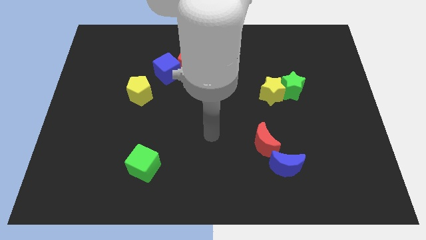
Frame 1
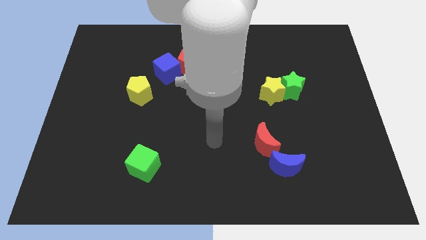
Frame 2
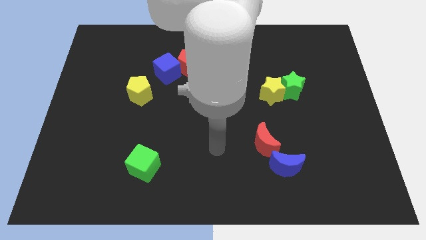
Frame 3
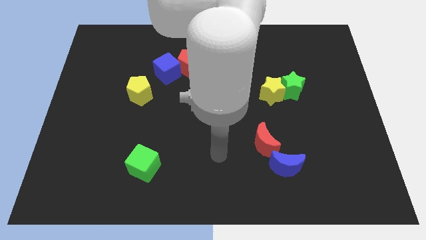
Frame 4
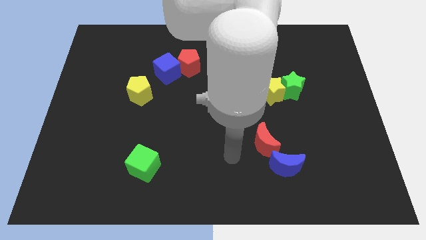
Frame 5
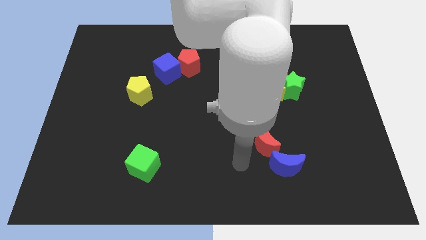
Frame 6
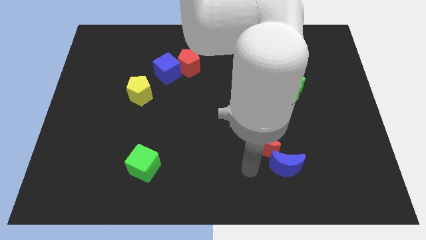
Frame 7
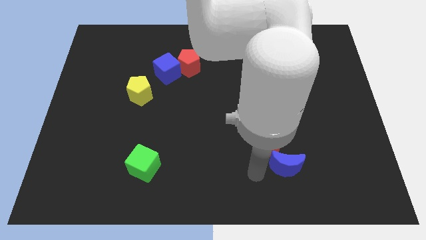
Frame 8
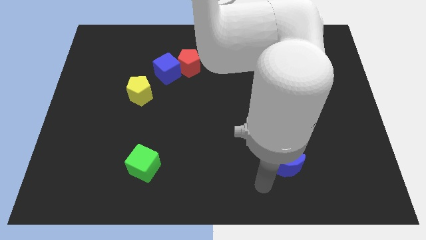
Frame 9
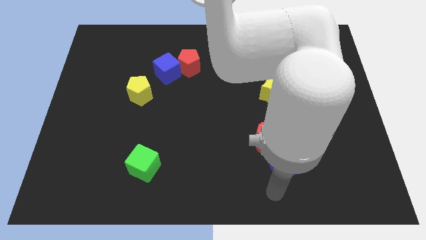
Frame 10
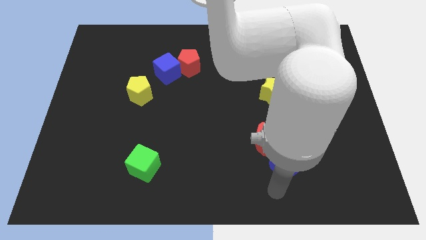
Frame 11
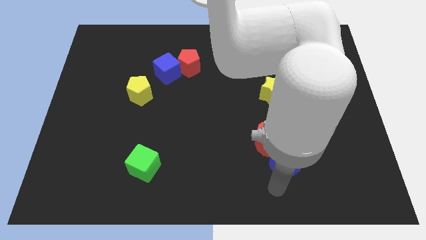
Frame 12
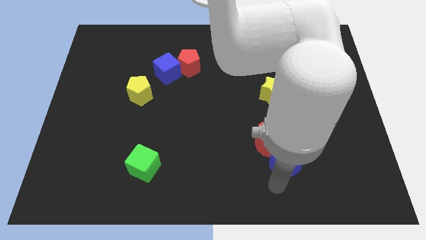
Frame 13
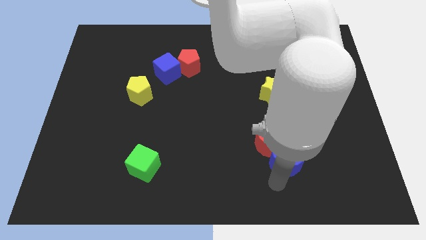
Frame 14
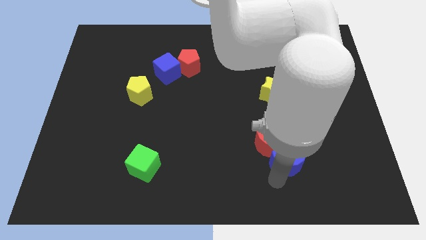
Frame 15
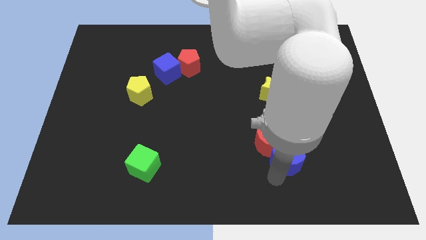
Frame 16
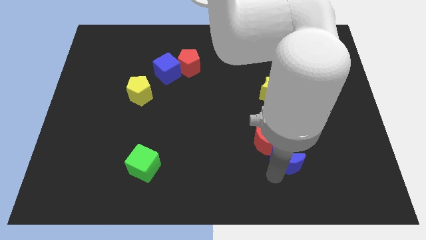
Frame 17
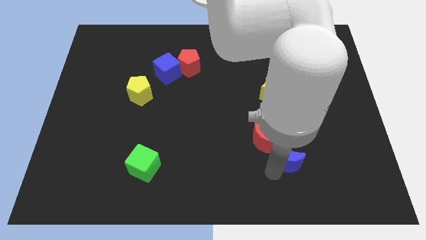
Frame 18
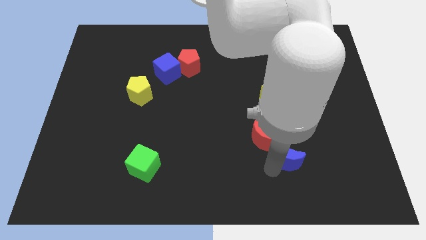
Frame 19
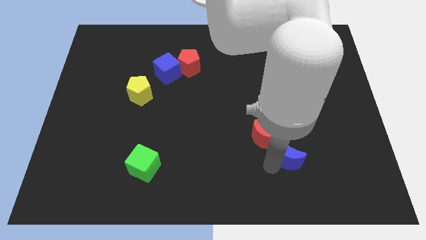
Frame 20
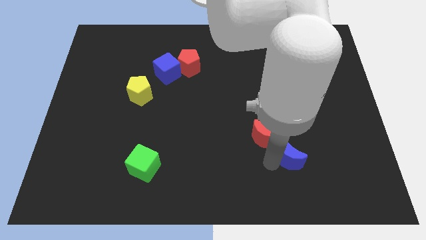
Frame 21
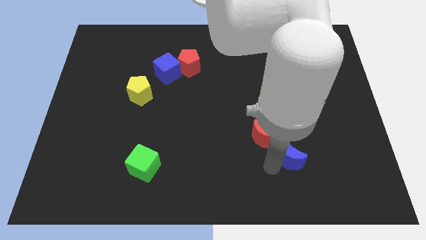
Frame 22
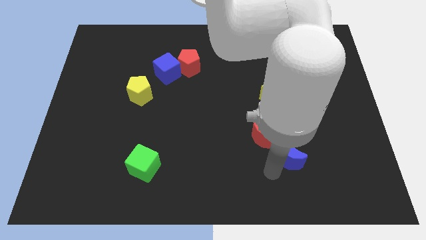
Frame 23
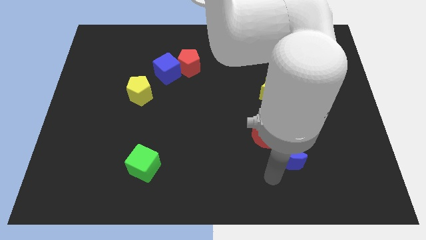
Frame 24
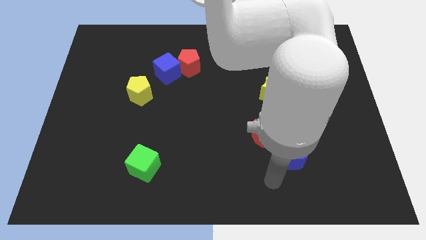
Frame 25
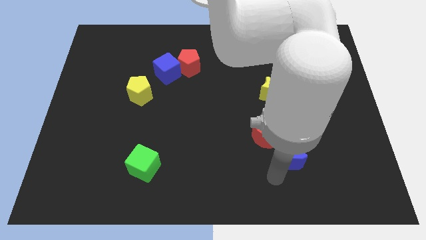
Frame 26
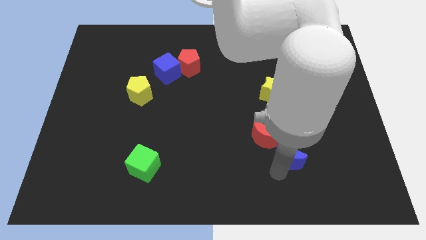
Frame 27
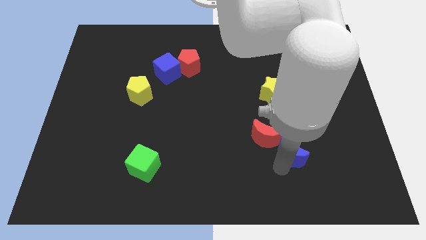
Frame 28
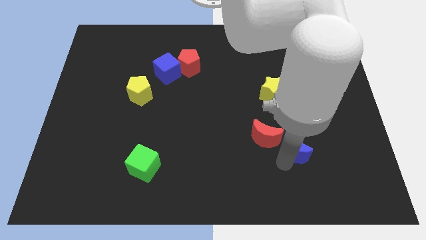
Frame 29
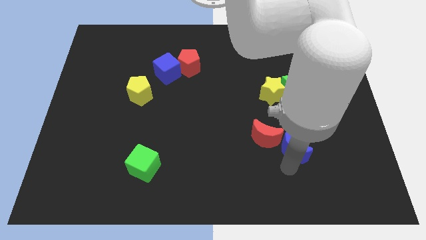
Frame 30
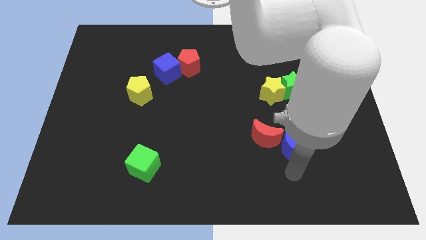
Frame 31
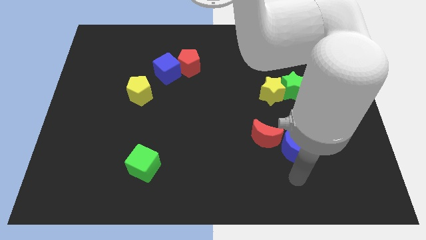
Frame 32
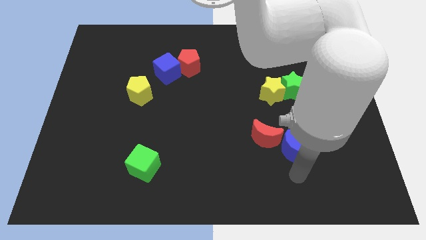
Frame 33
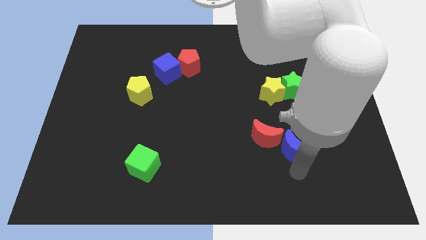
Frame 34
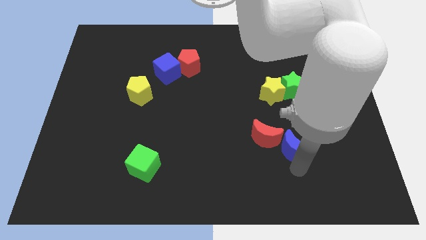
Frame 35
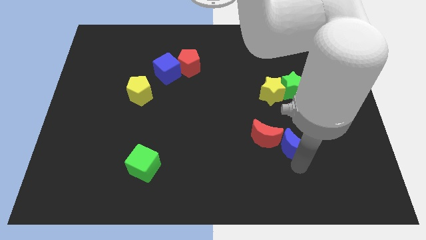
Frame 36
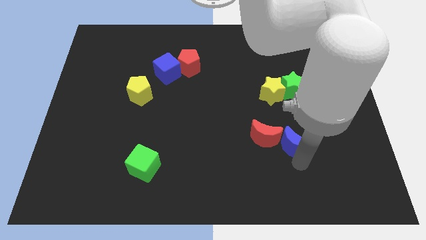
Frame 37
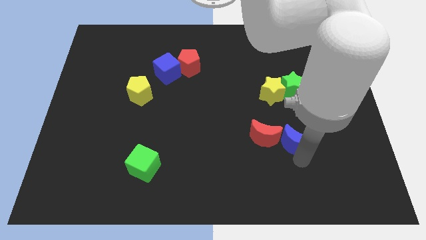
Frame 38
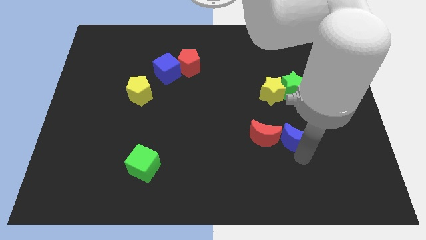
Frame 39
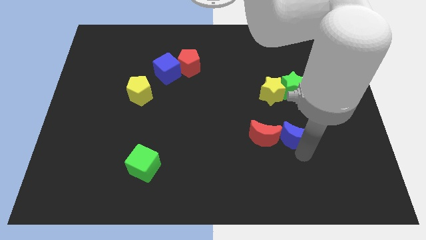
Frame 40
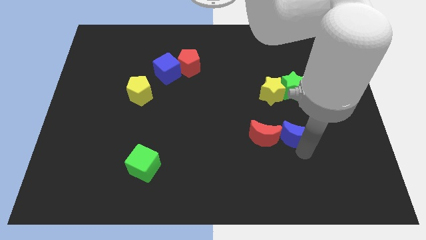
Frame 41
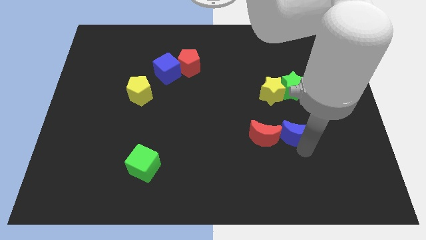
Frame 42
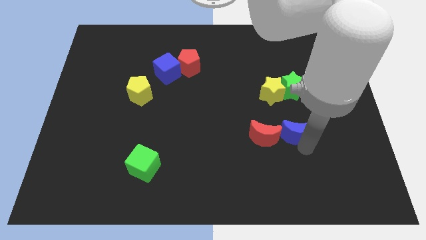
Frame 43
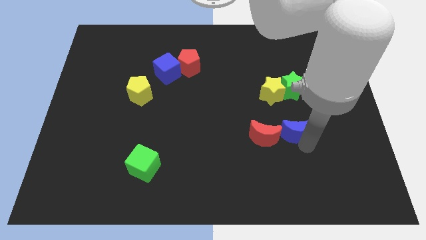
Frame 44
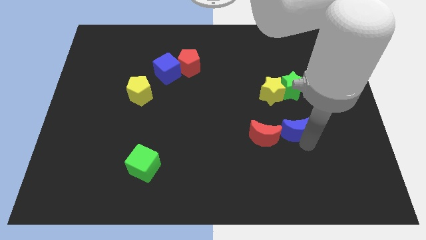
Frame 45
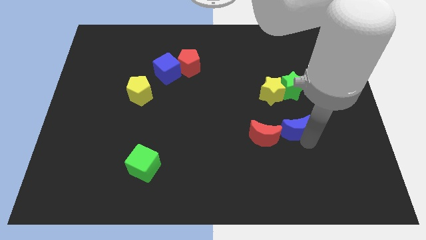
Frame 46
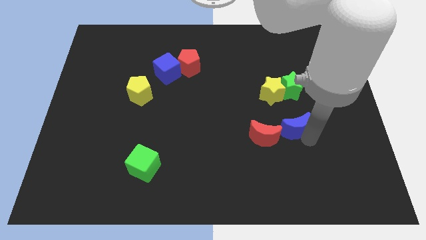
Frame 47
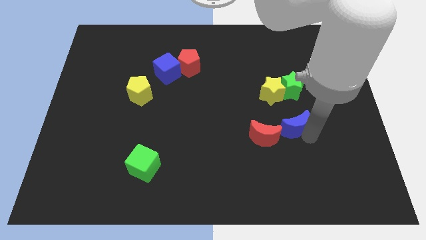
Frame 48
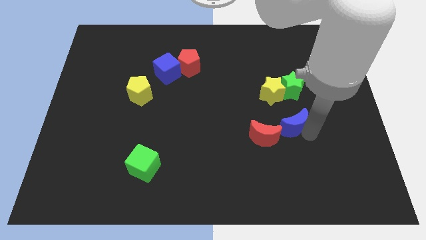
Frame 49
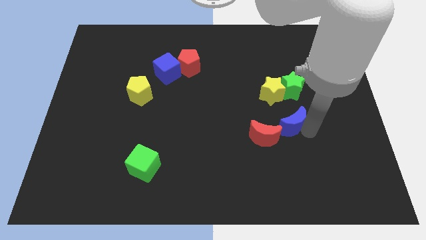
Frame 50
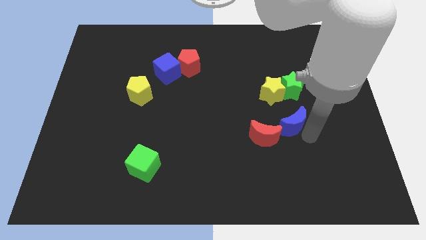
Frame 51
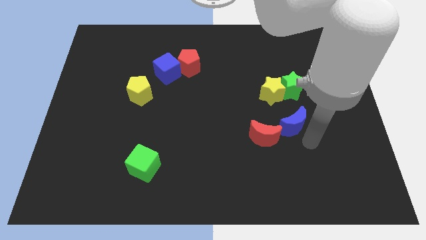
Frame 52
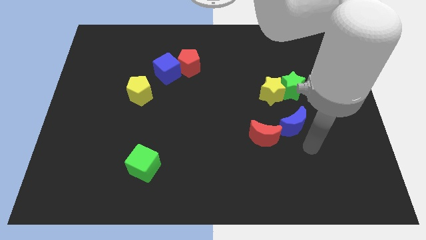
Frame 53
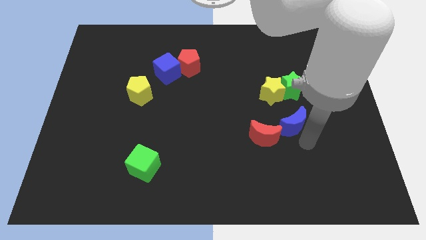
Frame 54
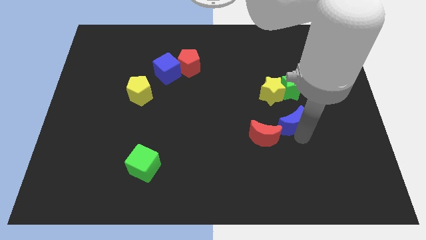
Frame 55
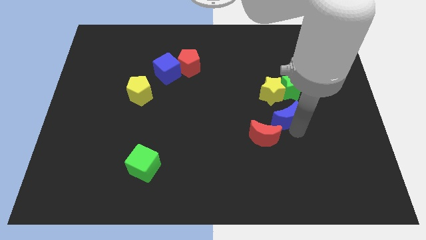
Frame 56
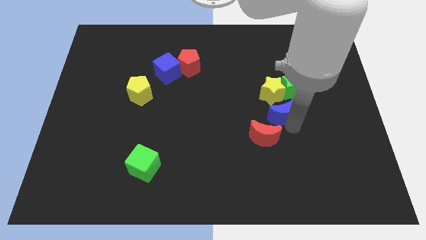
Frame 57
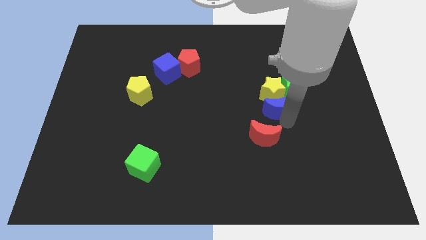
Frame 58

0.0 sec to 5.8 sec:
push the blue moon next to the yellow star

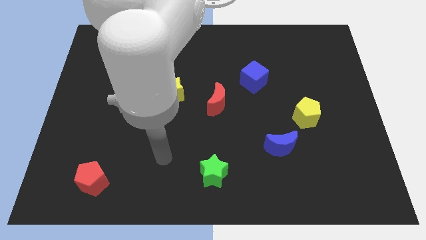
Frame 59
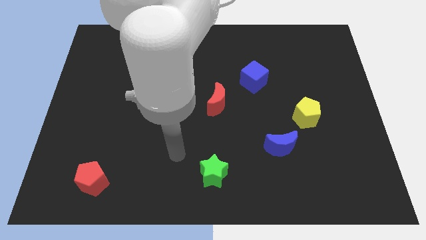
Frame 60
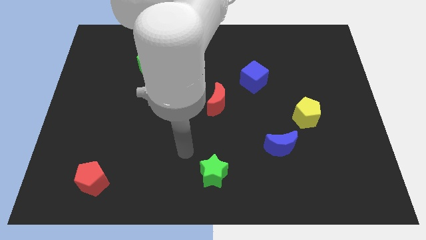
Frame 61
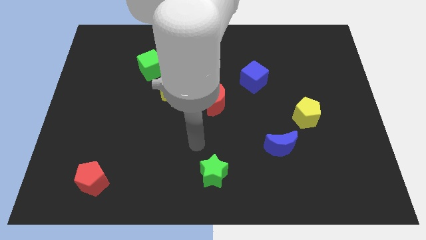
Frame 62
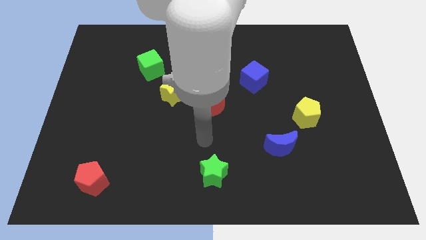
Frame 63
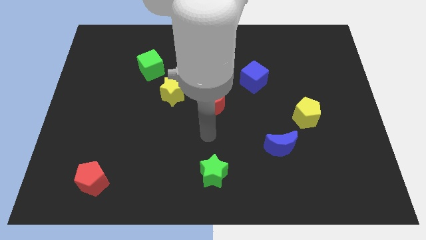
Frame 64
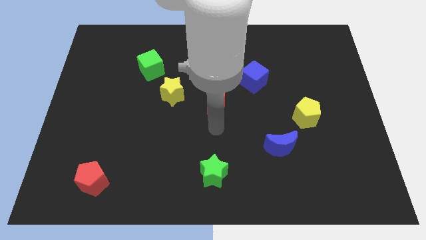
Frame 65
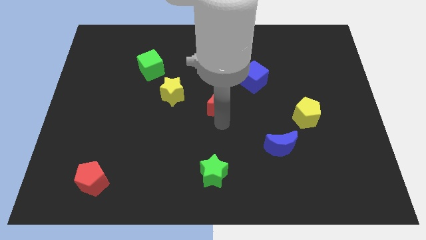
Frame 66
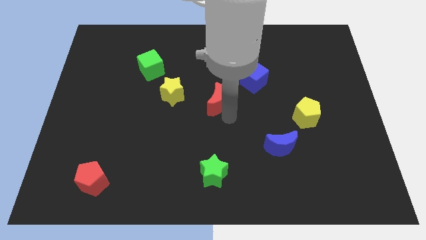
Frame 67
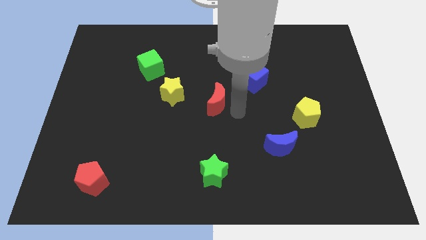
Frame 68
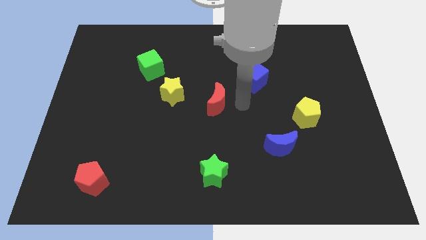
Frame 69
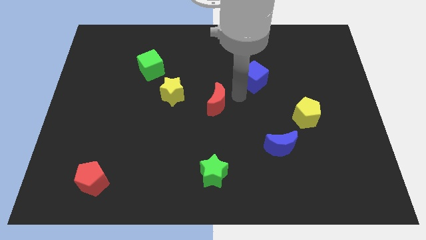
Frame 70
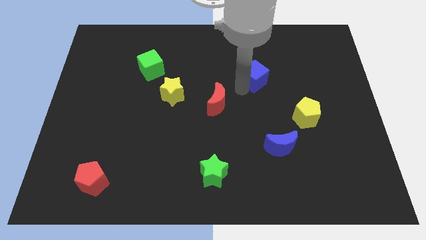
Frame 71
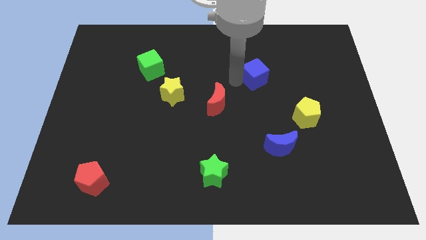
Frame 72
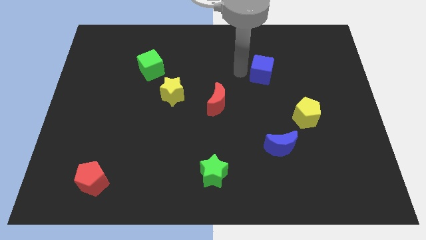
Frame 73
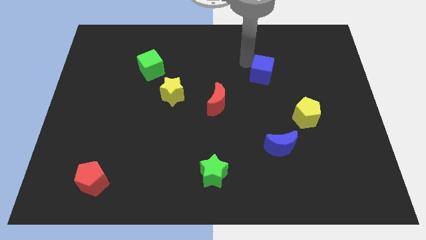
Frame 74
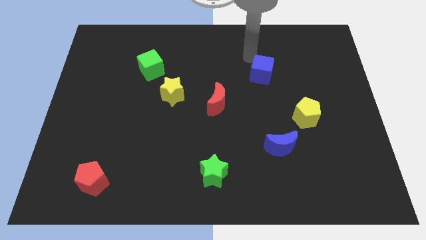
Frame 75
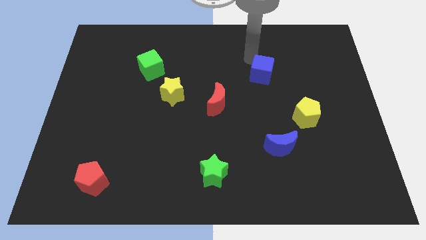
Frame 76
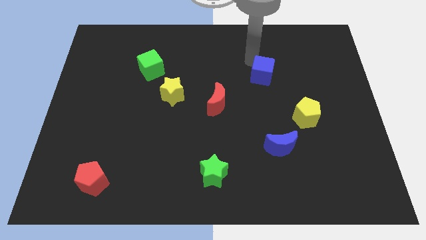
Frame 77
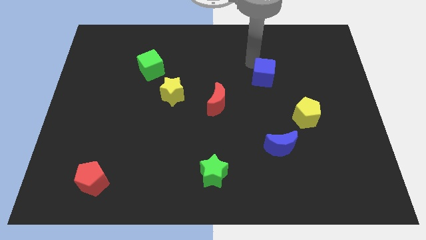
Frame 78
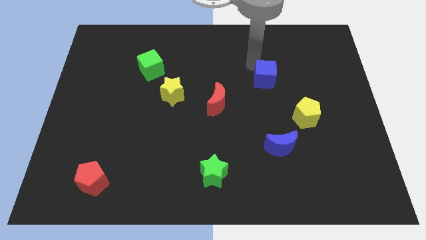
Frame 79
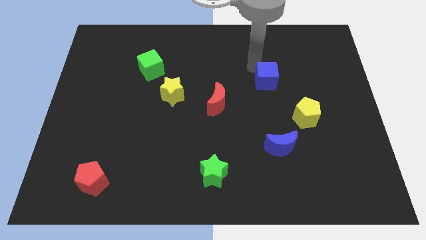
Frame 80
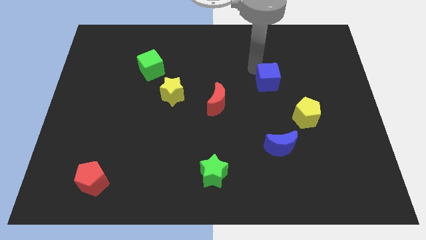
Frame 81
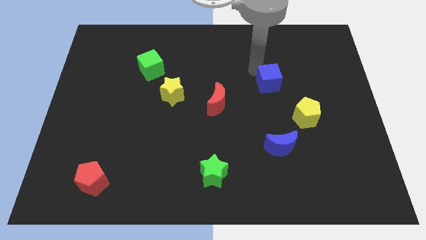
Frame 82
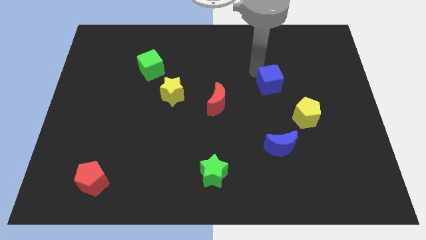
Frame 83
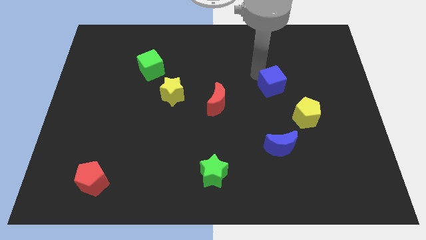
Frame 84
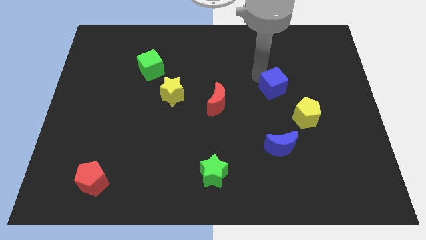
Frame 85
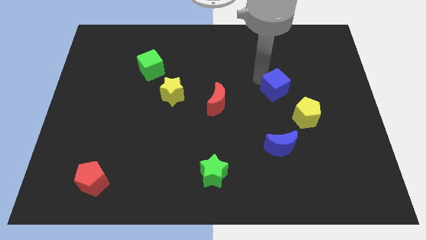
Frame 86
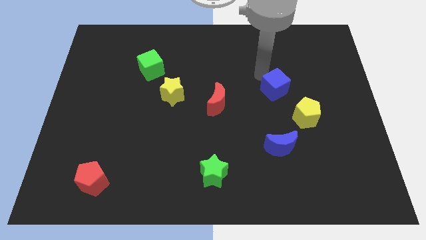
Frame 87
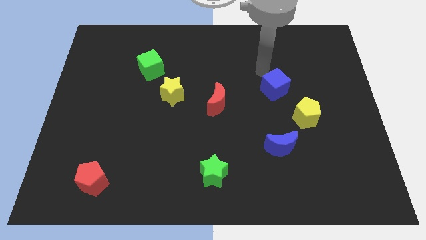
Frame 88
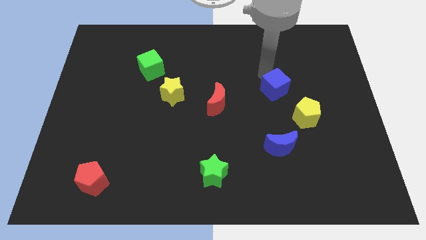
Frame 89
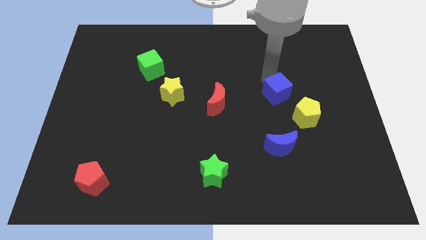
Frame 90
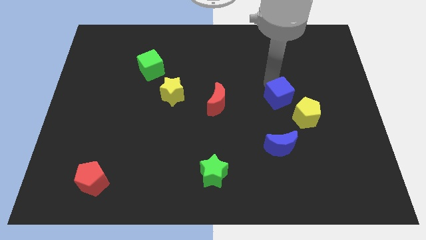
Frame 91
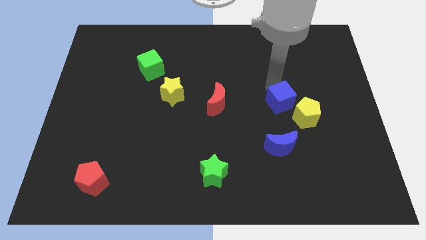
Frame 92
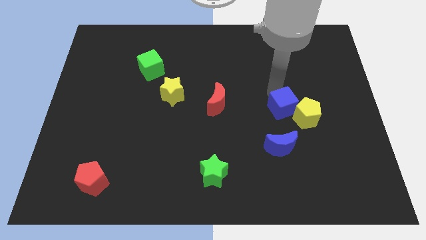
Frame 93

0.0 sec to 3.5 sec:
slide the blue cube towards the yellow pentagon
